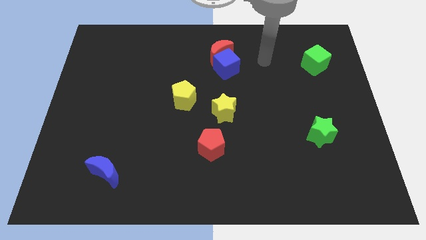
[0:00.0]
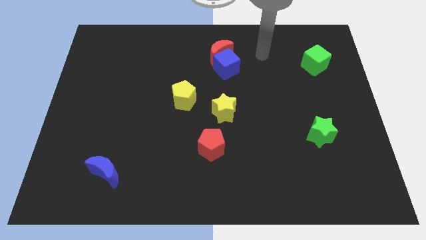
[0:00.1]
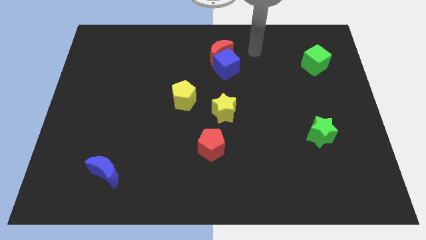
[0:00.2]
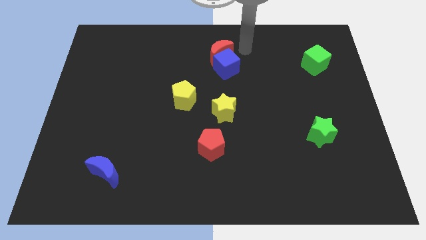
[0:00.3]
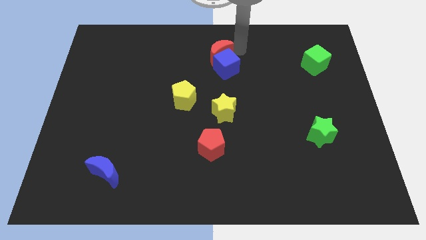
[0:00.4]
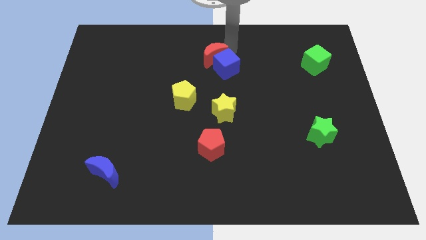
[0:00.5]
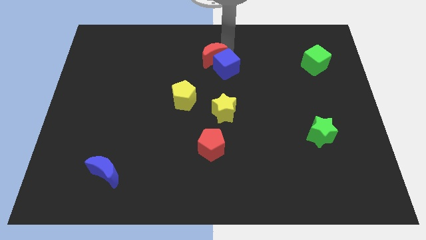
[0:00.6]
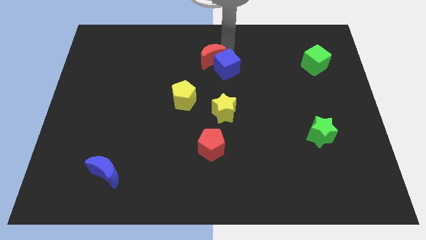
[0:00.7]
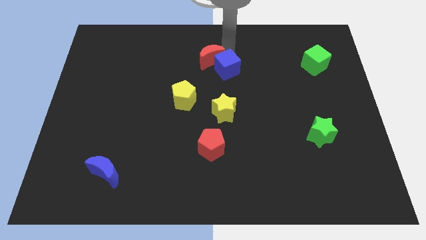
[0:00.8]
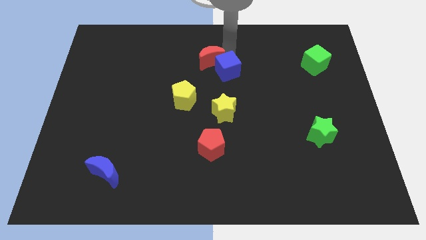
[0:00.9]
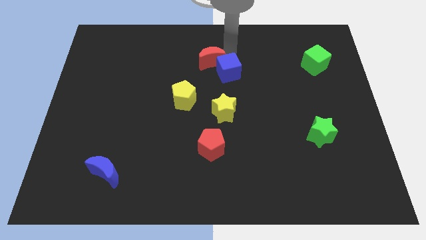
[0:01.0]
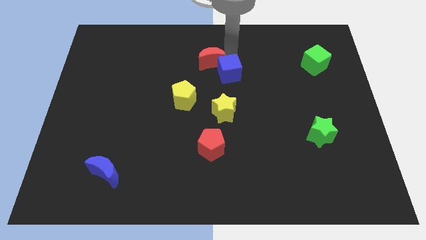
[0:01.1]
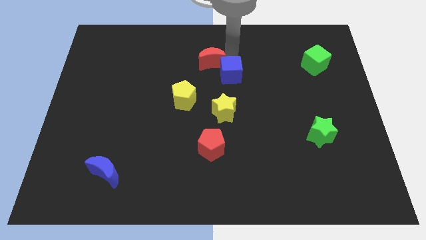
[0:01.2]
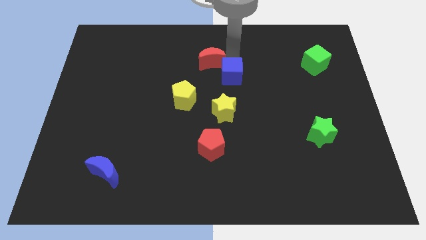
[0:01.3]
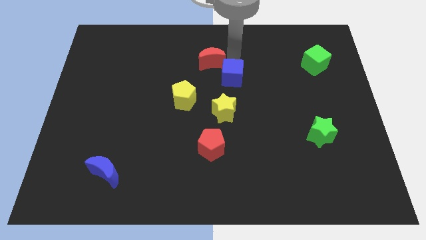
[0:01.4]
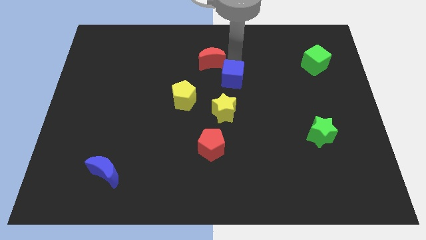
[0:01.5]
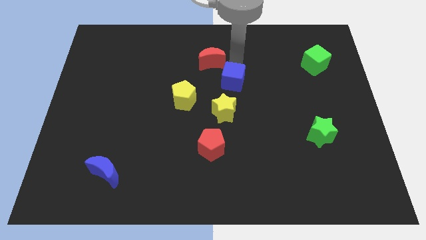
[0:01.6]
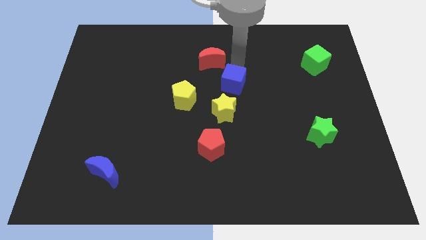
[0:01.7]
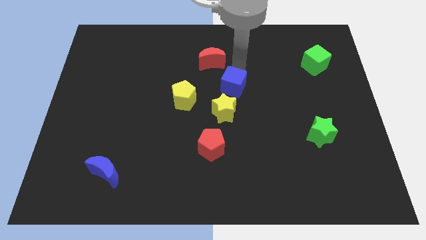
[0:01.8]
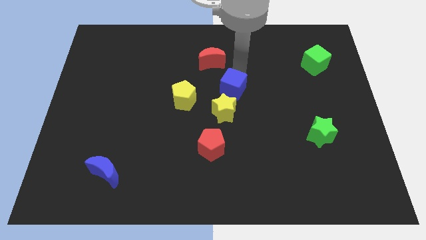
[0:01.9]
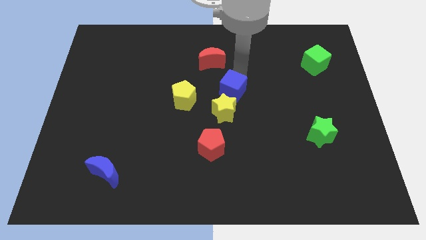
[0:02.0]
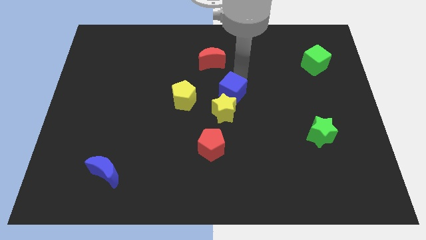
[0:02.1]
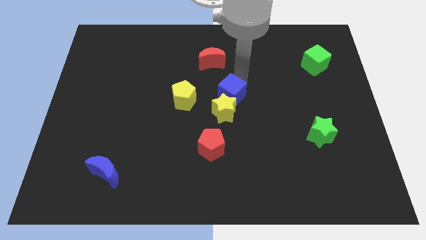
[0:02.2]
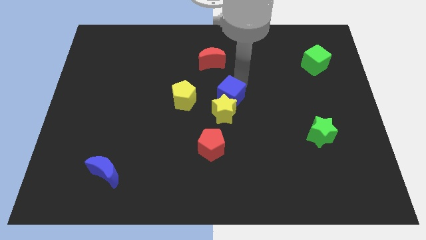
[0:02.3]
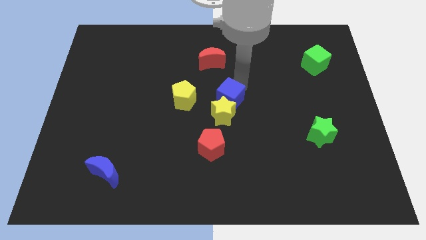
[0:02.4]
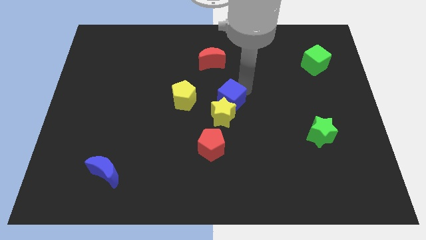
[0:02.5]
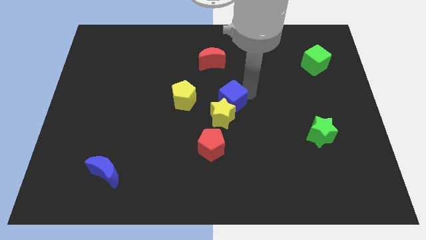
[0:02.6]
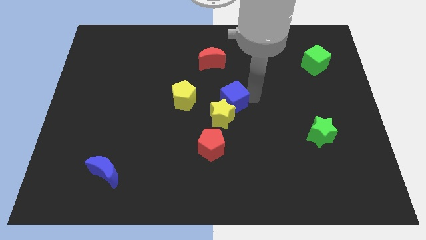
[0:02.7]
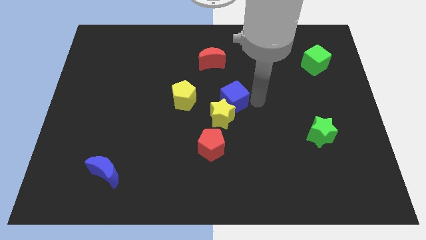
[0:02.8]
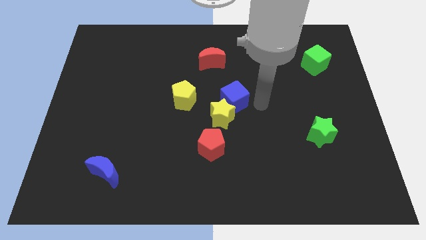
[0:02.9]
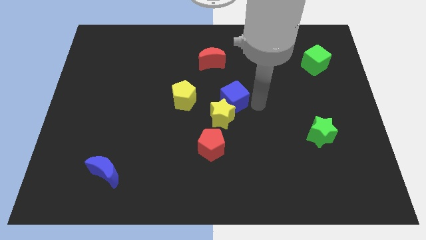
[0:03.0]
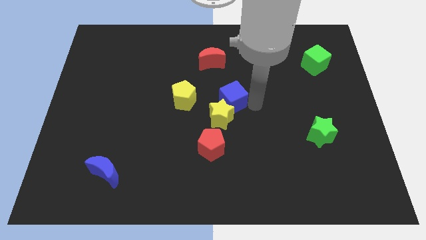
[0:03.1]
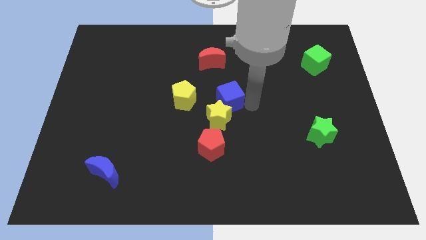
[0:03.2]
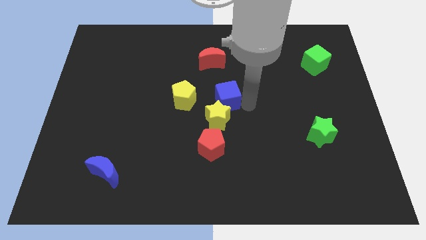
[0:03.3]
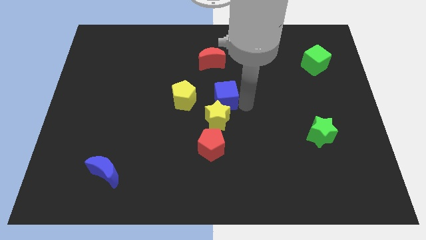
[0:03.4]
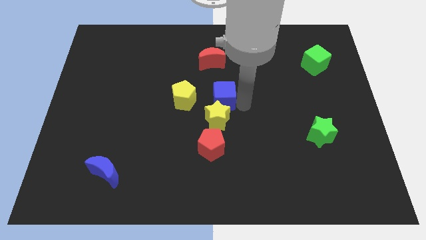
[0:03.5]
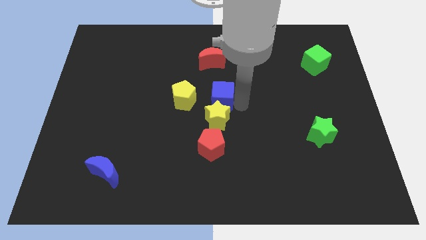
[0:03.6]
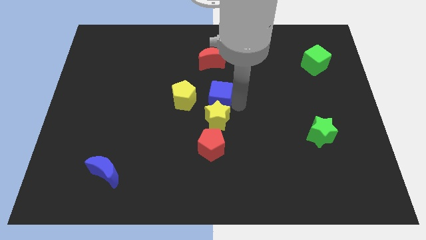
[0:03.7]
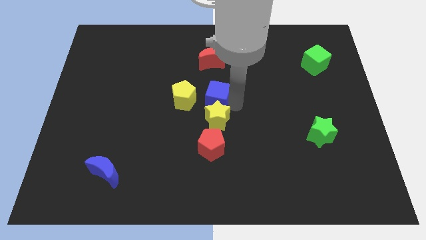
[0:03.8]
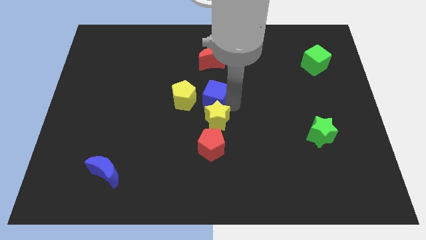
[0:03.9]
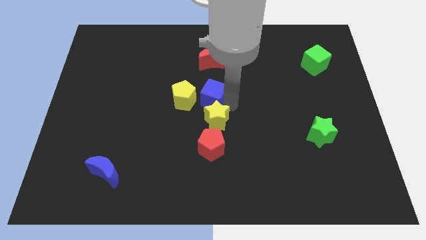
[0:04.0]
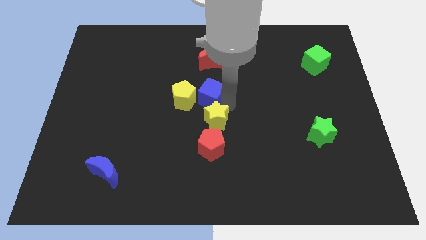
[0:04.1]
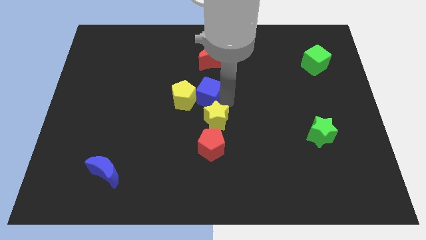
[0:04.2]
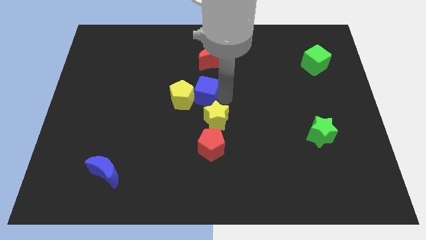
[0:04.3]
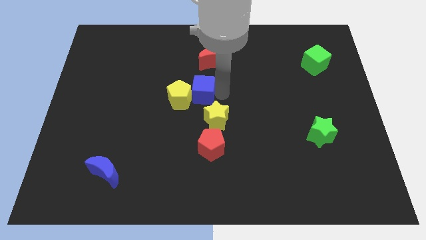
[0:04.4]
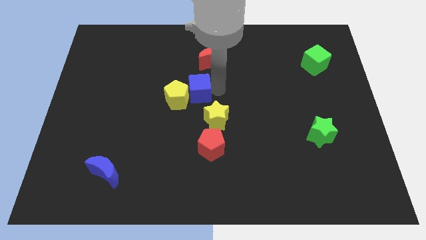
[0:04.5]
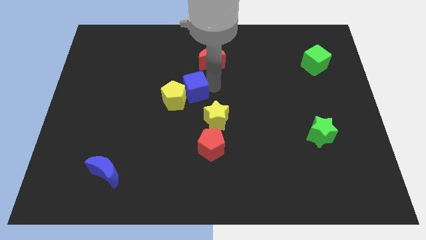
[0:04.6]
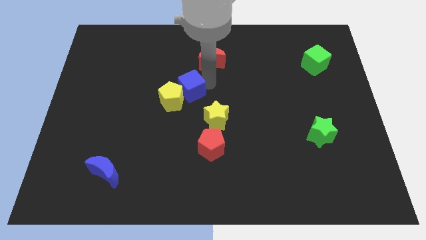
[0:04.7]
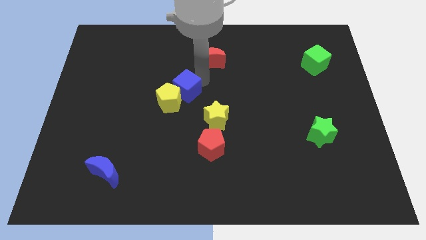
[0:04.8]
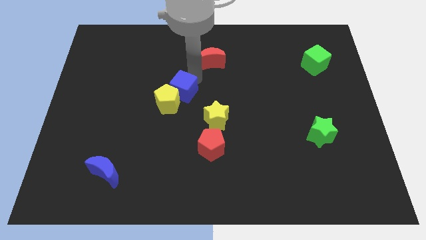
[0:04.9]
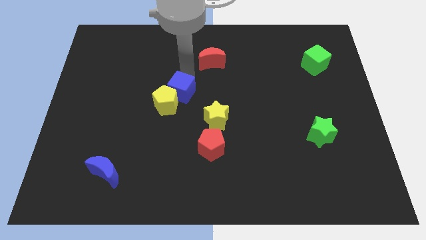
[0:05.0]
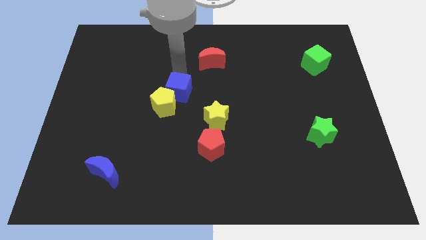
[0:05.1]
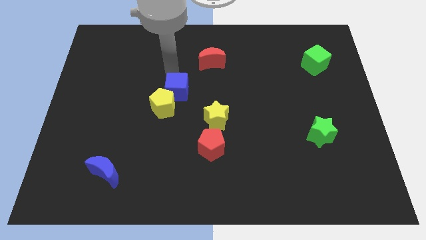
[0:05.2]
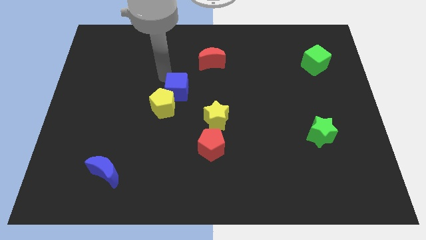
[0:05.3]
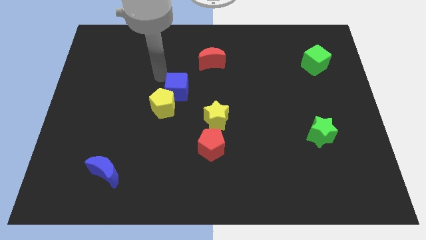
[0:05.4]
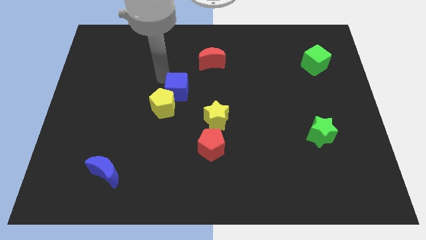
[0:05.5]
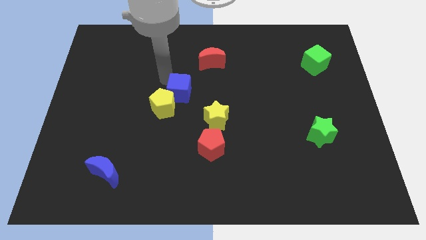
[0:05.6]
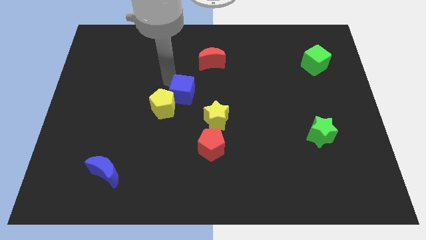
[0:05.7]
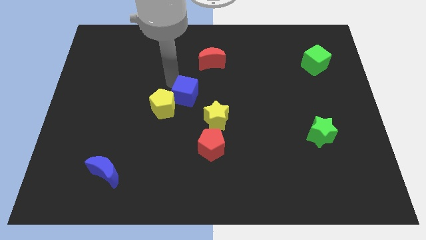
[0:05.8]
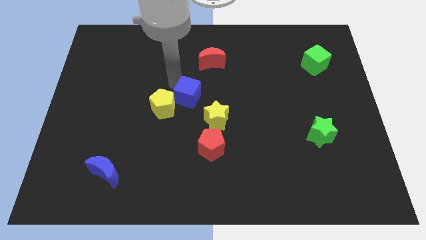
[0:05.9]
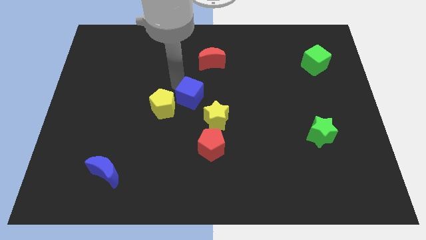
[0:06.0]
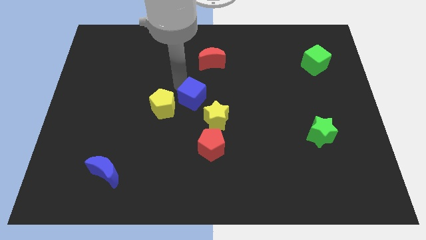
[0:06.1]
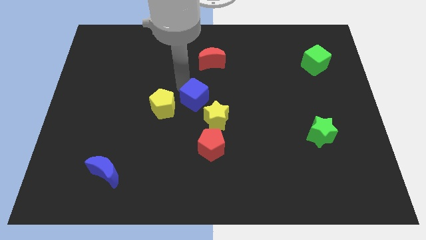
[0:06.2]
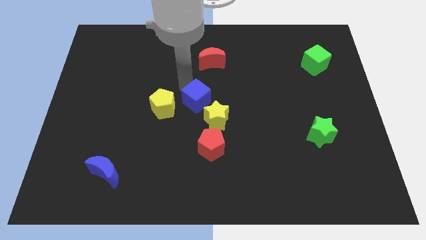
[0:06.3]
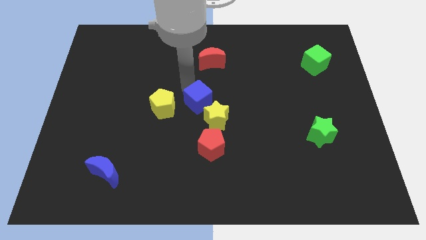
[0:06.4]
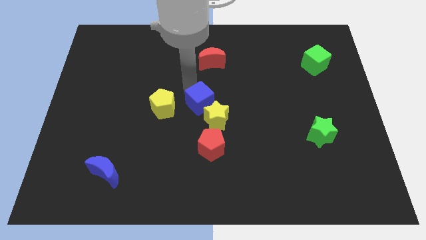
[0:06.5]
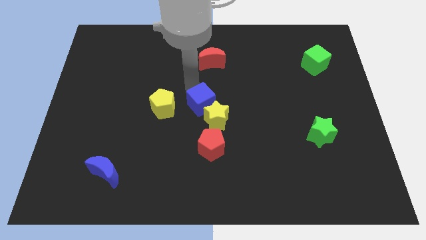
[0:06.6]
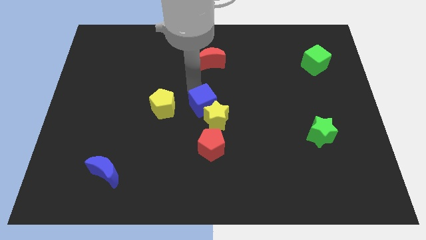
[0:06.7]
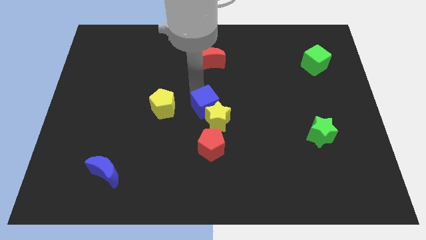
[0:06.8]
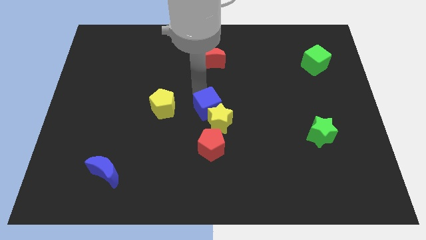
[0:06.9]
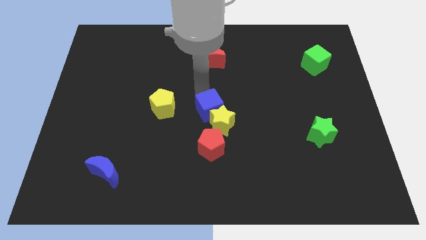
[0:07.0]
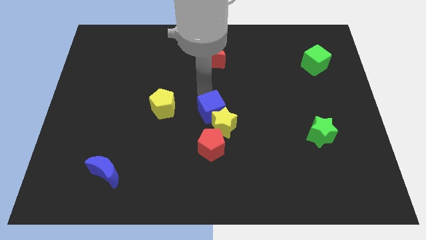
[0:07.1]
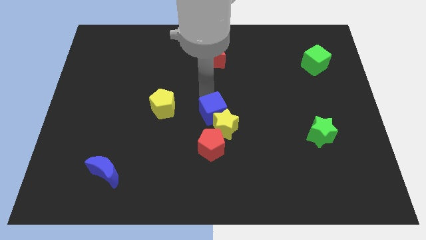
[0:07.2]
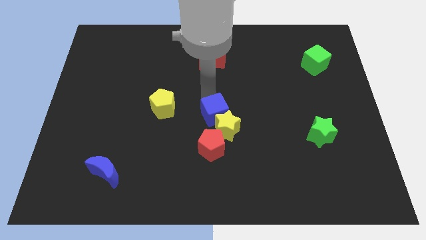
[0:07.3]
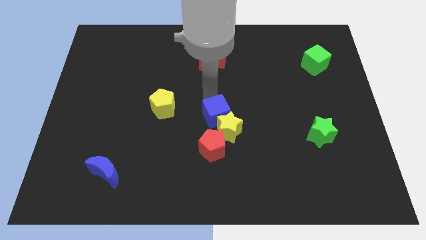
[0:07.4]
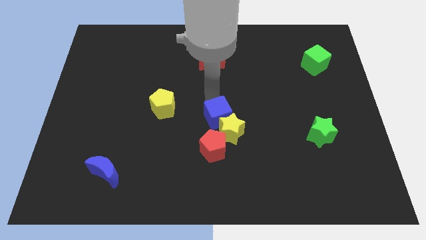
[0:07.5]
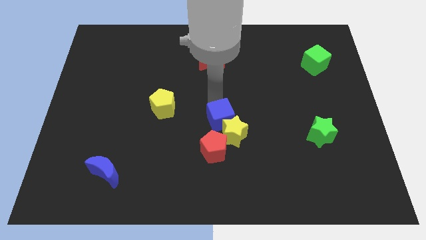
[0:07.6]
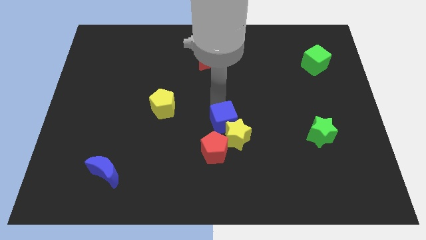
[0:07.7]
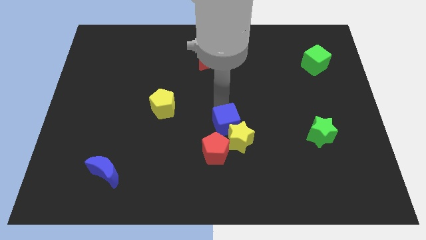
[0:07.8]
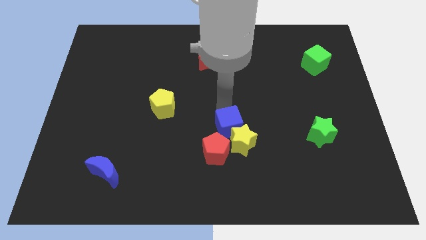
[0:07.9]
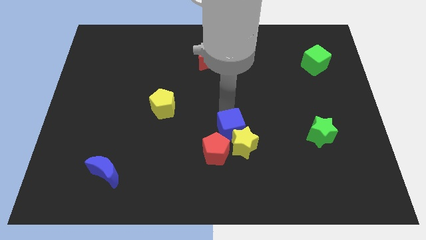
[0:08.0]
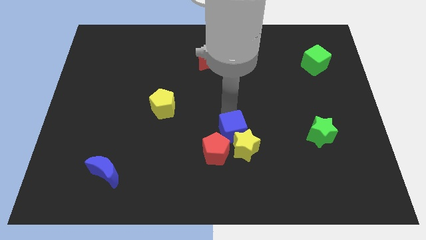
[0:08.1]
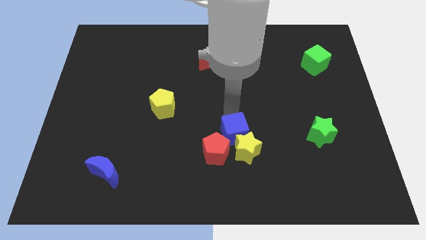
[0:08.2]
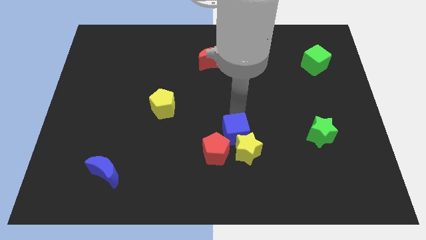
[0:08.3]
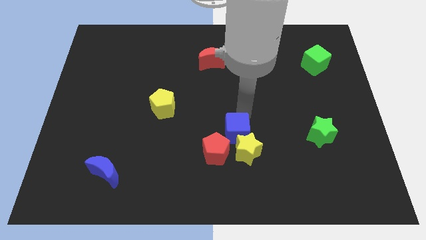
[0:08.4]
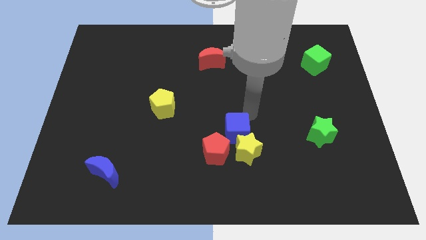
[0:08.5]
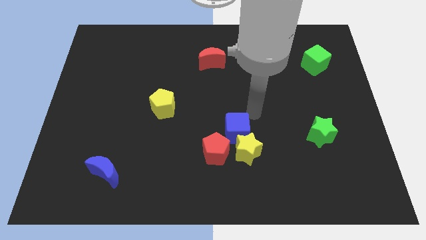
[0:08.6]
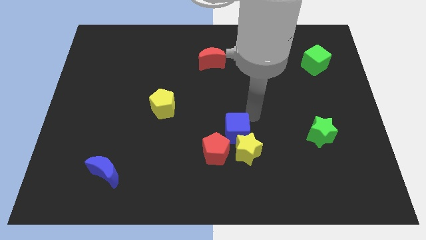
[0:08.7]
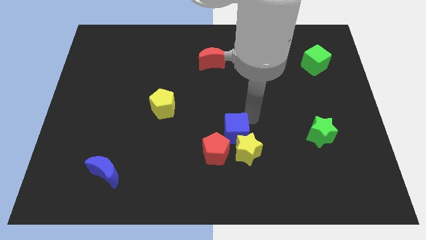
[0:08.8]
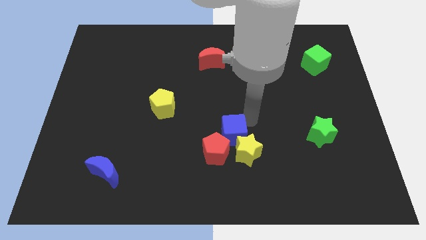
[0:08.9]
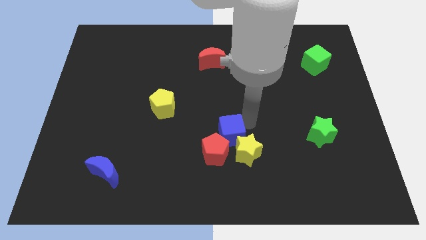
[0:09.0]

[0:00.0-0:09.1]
push the blue cube close to the red pentagon
